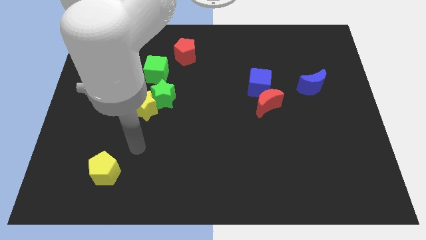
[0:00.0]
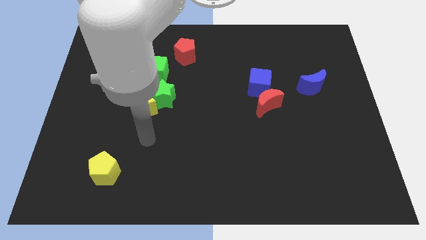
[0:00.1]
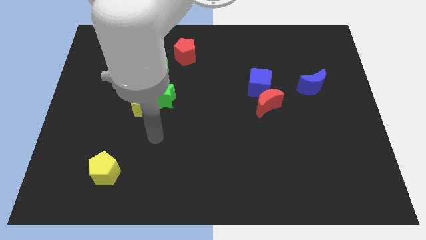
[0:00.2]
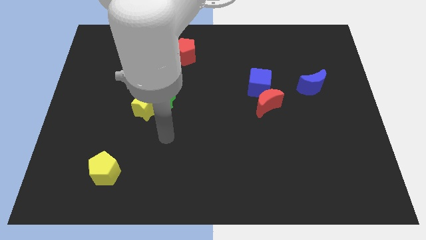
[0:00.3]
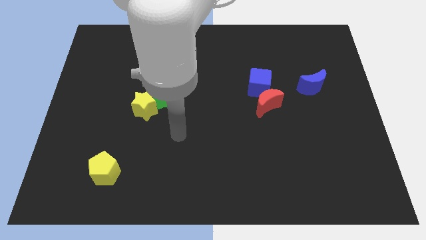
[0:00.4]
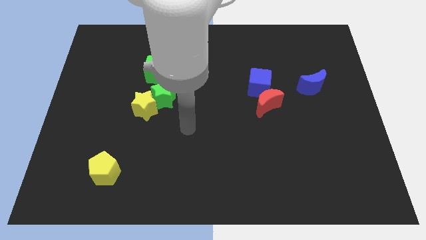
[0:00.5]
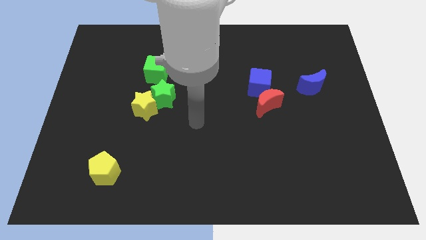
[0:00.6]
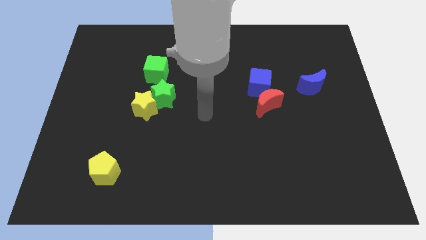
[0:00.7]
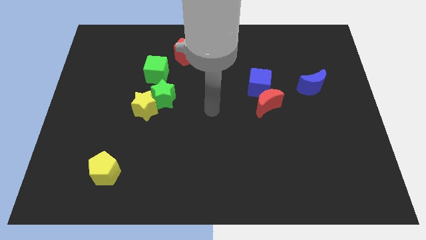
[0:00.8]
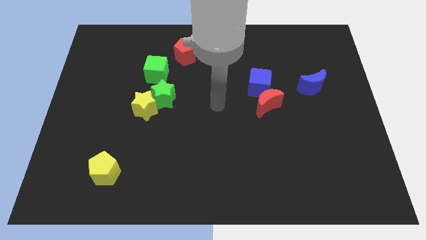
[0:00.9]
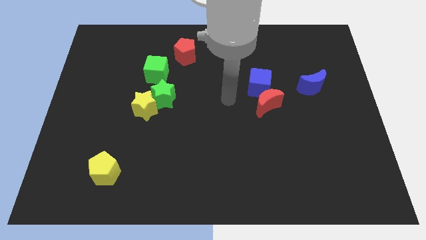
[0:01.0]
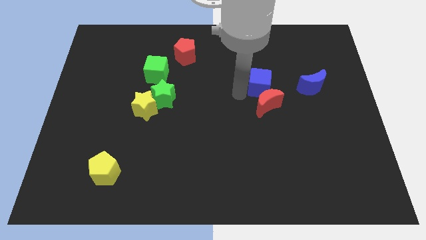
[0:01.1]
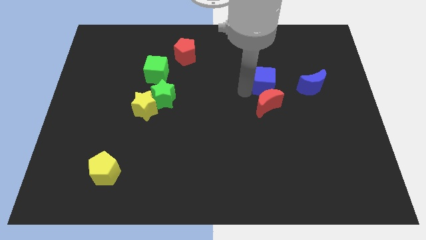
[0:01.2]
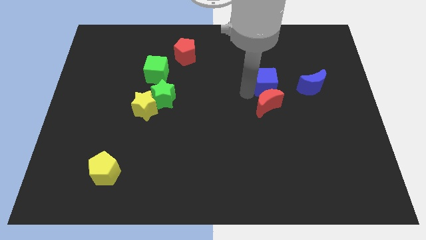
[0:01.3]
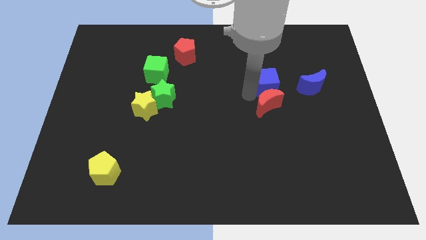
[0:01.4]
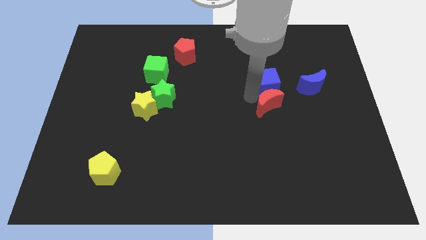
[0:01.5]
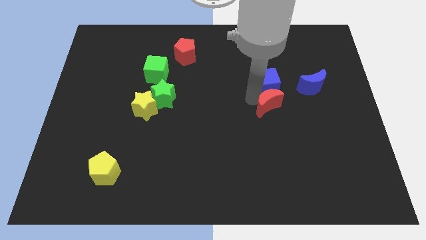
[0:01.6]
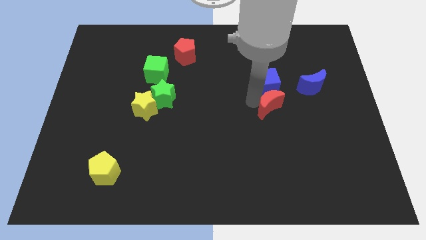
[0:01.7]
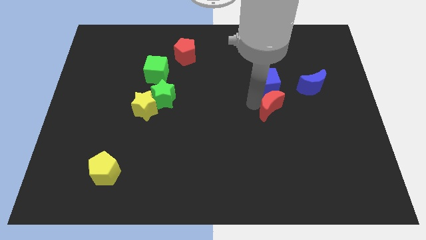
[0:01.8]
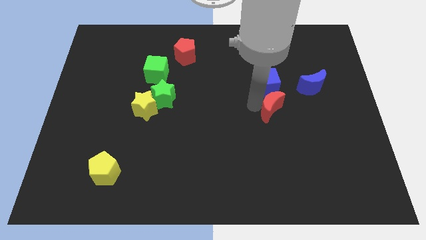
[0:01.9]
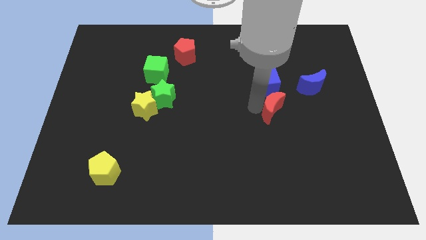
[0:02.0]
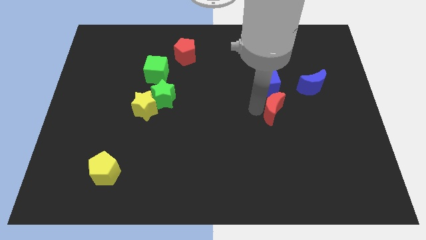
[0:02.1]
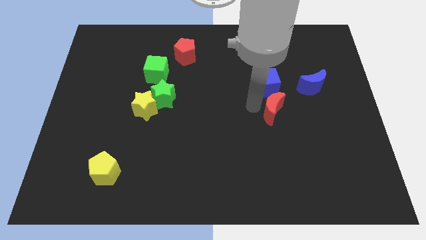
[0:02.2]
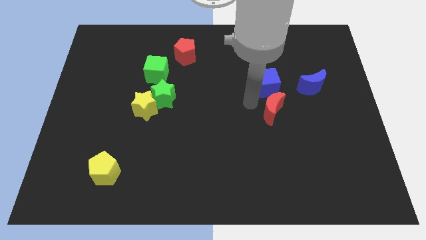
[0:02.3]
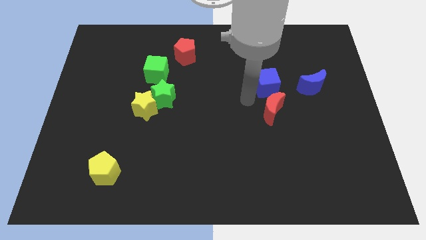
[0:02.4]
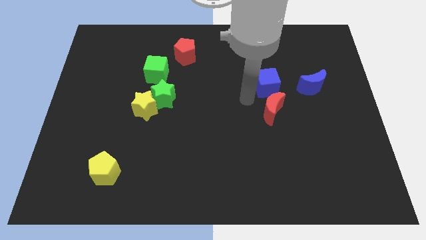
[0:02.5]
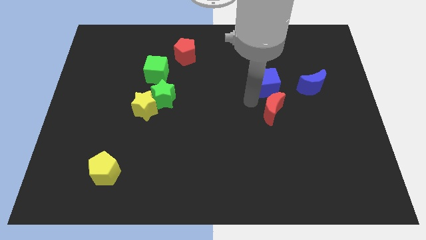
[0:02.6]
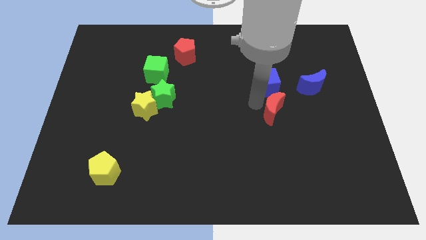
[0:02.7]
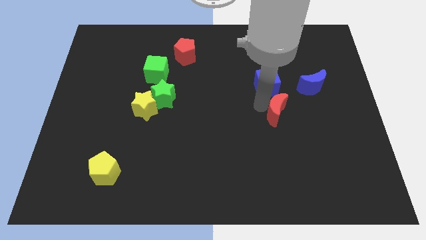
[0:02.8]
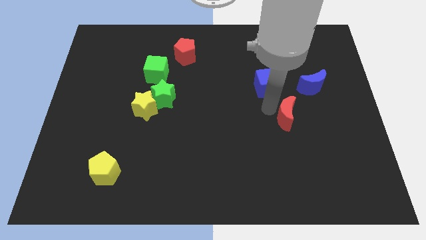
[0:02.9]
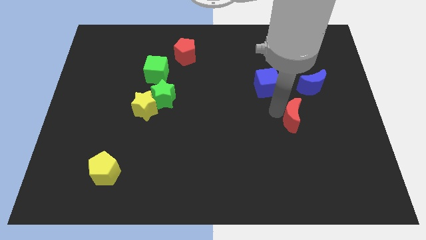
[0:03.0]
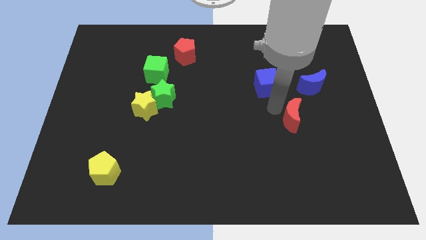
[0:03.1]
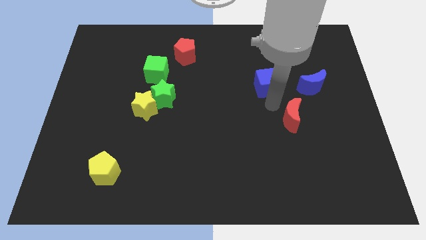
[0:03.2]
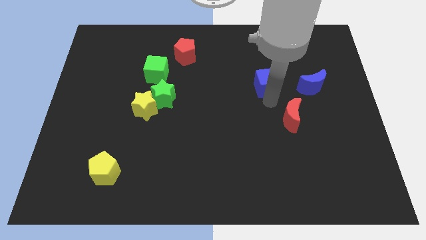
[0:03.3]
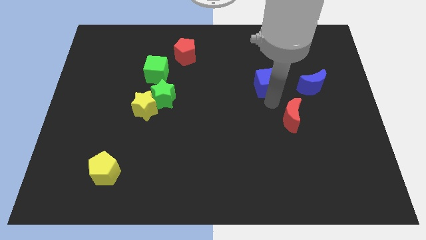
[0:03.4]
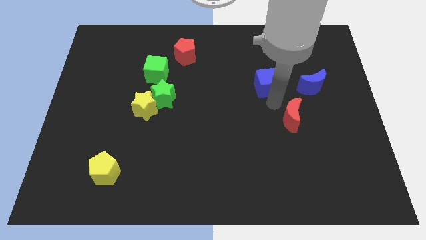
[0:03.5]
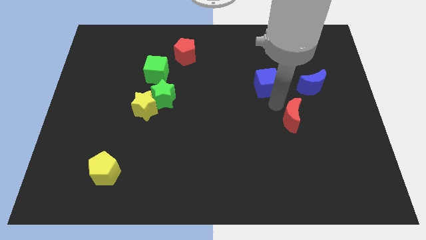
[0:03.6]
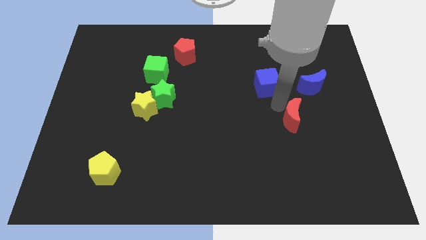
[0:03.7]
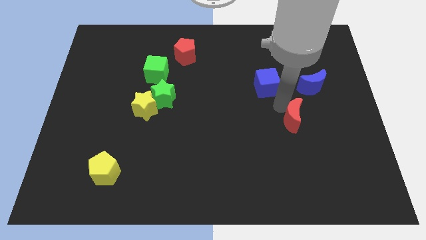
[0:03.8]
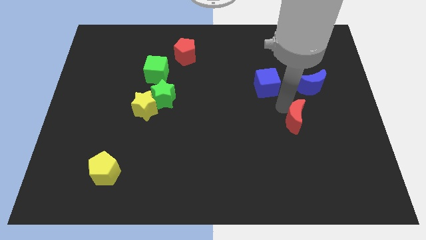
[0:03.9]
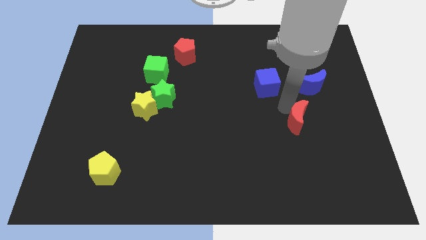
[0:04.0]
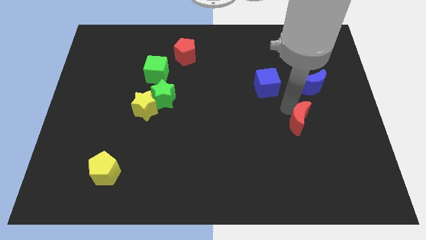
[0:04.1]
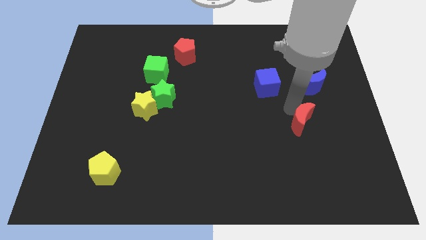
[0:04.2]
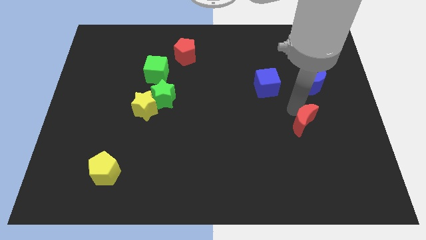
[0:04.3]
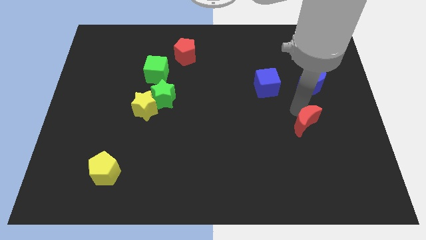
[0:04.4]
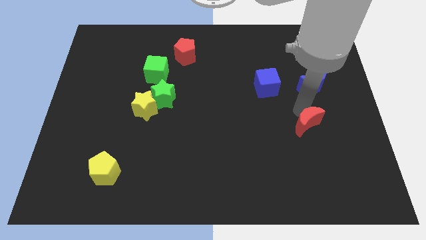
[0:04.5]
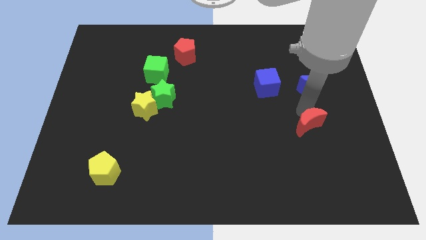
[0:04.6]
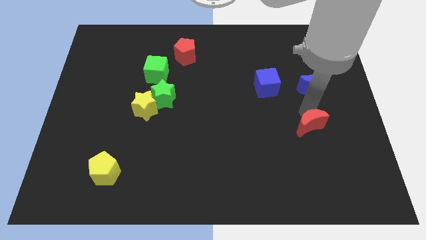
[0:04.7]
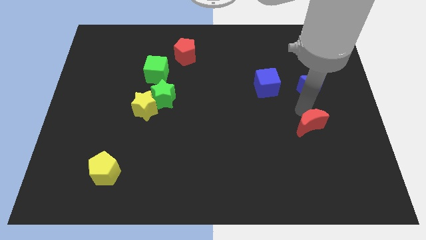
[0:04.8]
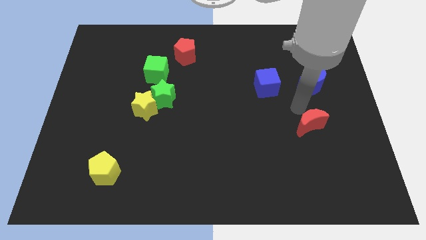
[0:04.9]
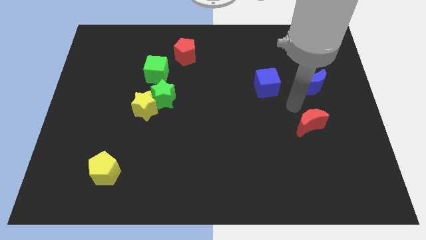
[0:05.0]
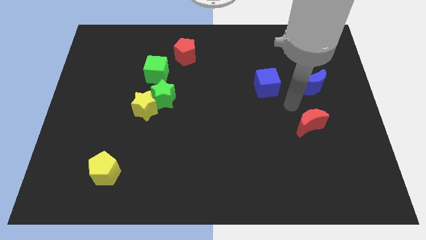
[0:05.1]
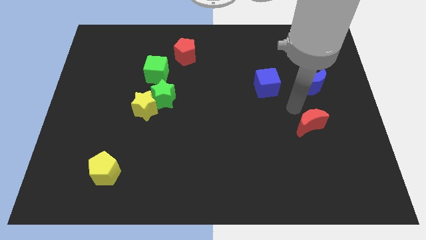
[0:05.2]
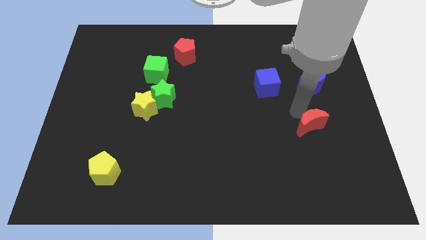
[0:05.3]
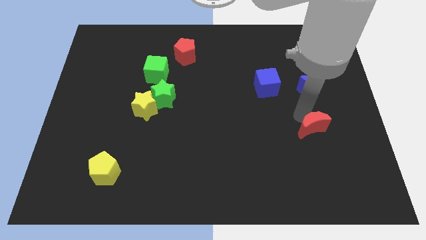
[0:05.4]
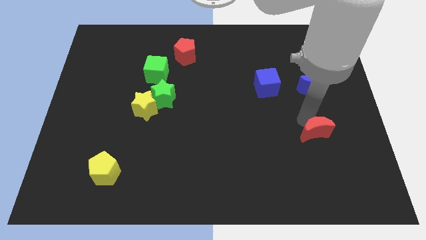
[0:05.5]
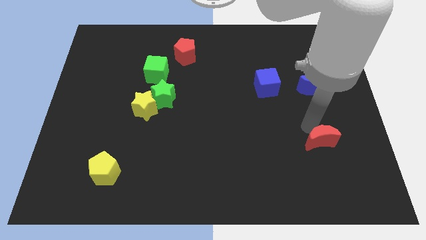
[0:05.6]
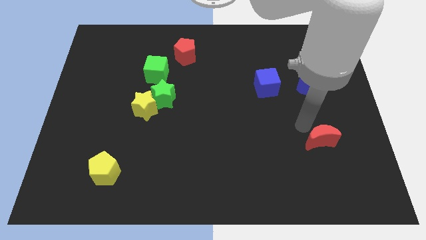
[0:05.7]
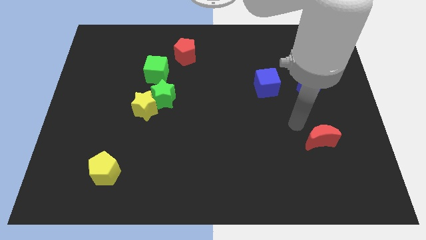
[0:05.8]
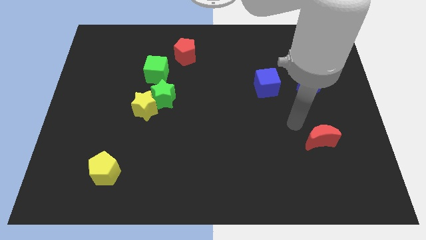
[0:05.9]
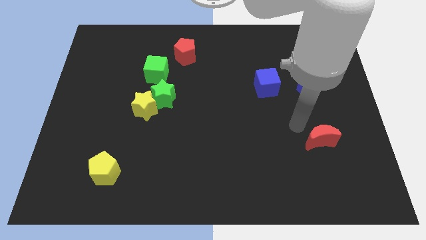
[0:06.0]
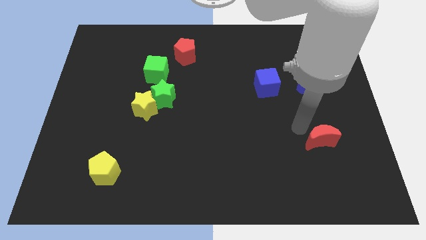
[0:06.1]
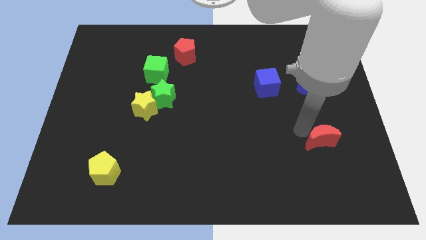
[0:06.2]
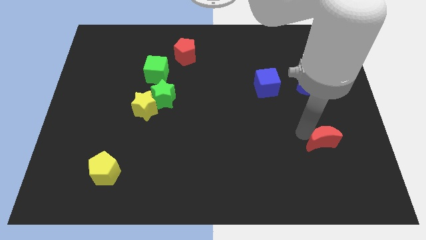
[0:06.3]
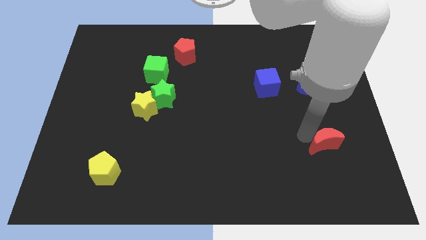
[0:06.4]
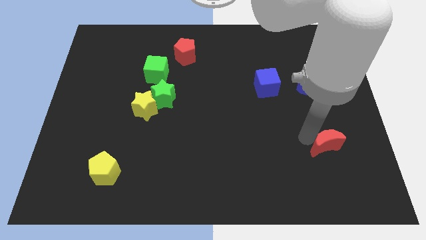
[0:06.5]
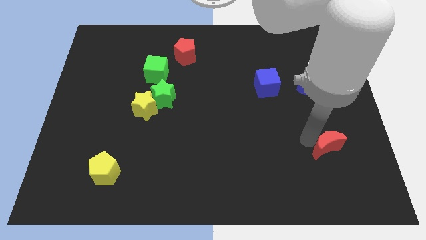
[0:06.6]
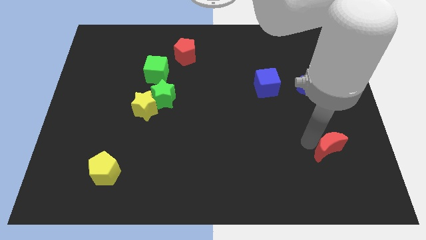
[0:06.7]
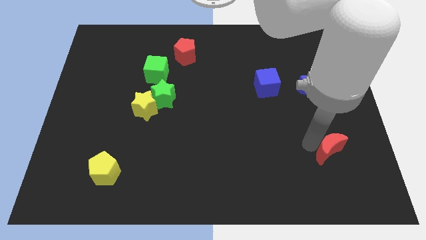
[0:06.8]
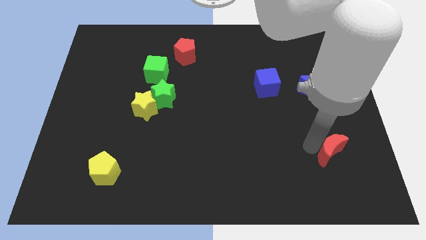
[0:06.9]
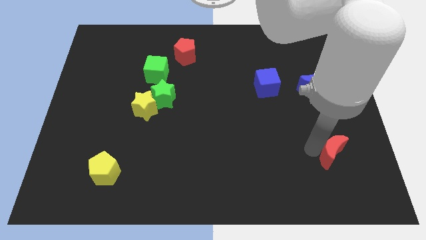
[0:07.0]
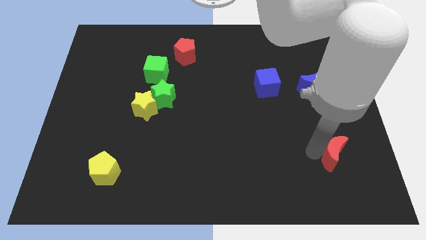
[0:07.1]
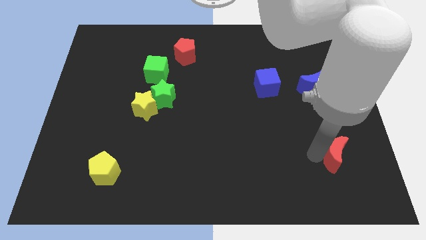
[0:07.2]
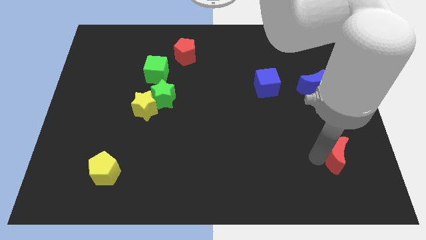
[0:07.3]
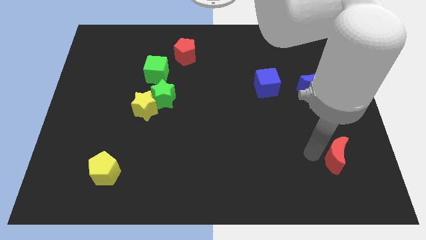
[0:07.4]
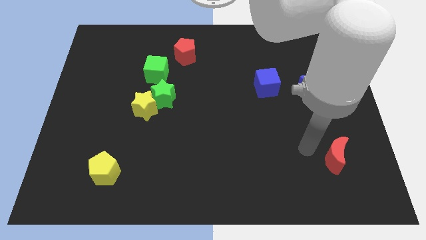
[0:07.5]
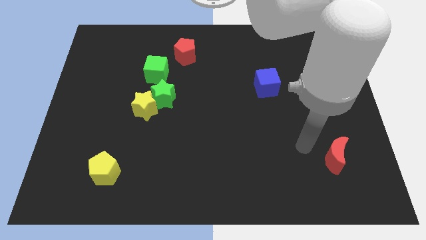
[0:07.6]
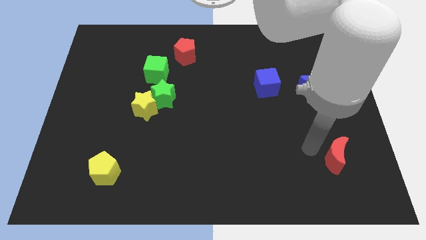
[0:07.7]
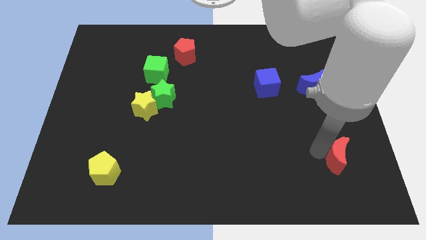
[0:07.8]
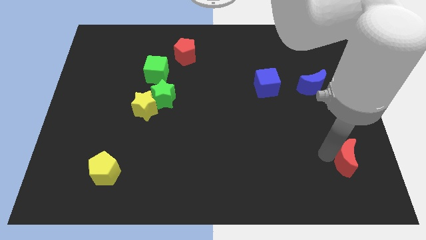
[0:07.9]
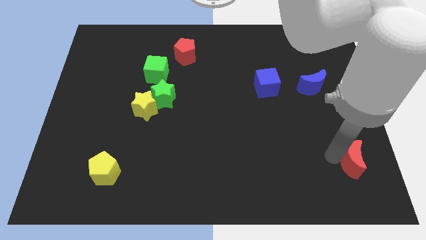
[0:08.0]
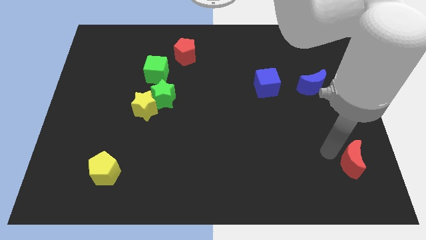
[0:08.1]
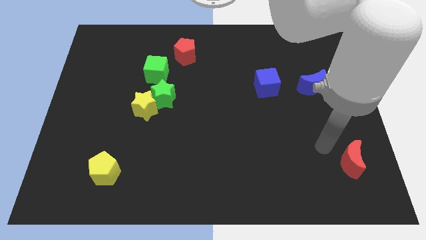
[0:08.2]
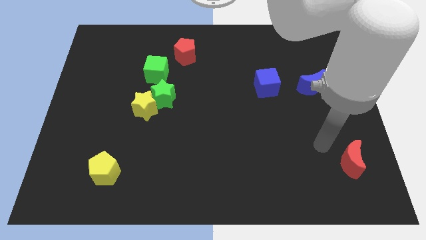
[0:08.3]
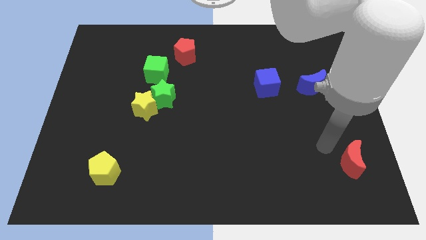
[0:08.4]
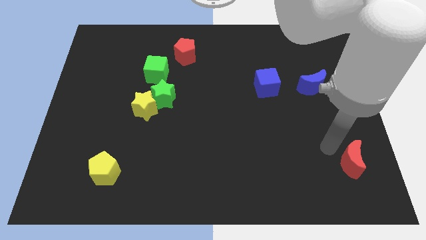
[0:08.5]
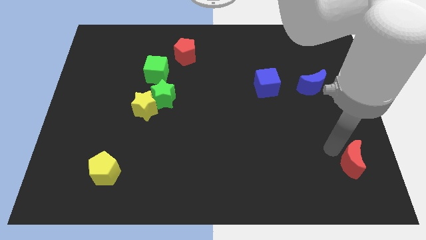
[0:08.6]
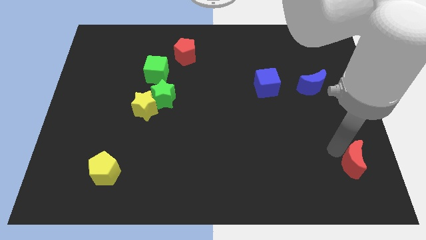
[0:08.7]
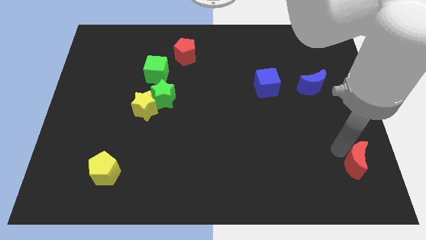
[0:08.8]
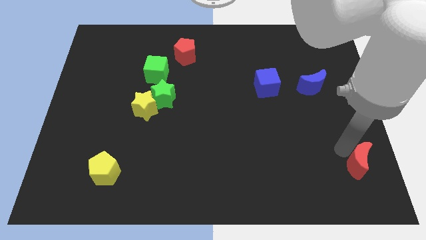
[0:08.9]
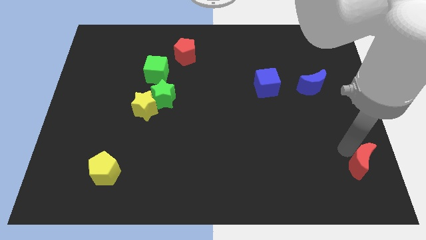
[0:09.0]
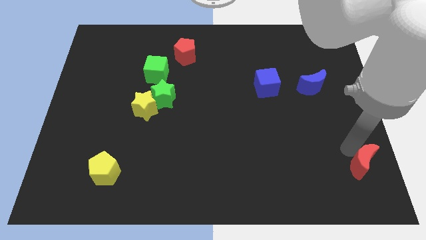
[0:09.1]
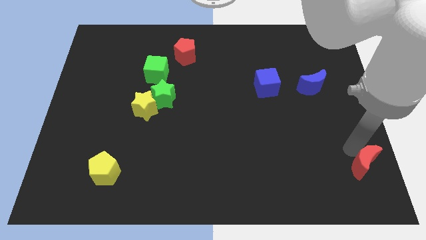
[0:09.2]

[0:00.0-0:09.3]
push the red moon to the bottom right corner
